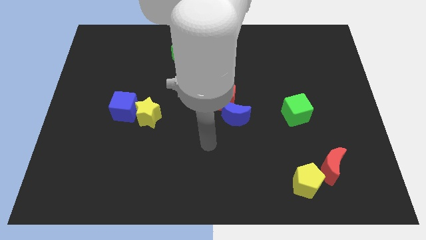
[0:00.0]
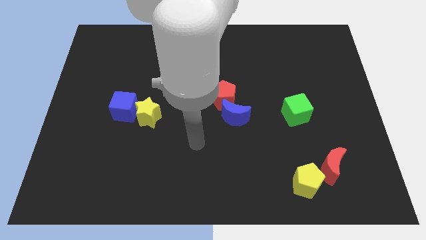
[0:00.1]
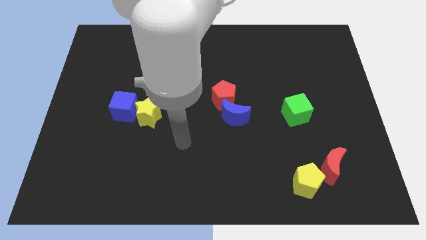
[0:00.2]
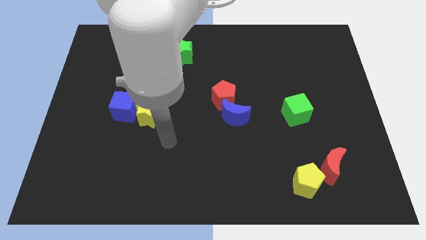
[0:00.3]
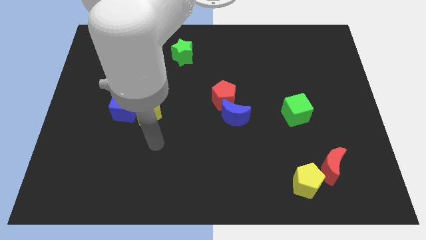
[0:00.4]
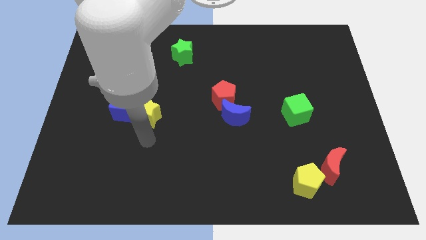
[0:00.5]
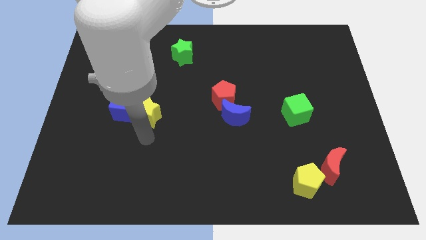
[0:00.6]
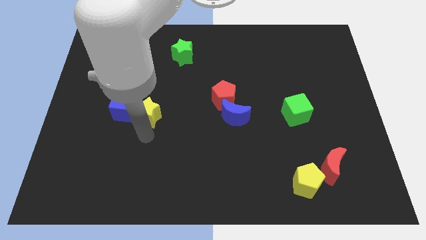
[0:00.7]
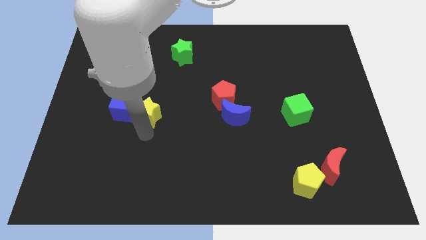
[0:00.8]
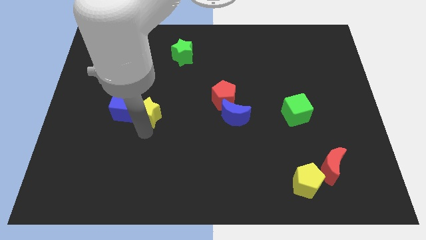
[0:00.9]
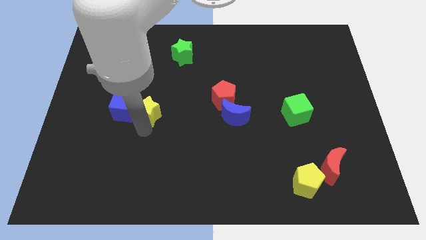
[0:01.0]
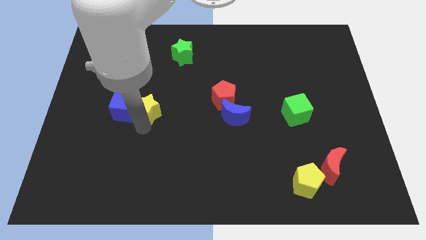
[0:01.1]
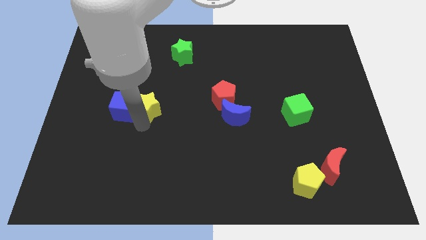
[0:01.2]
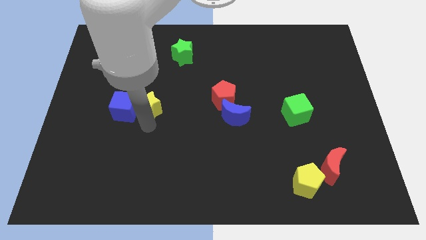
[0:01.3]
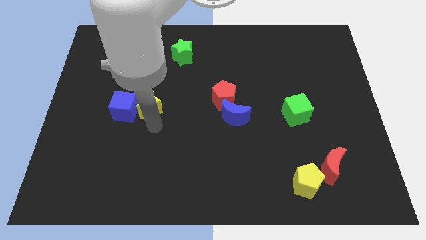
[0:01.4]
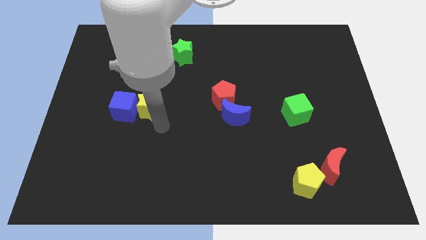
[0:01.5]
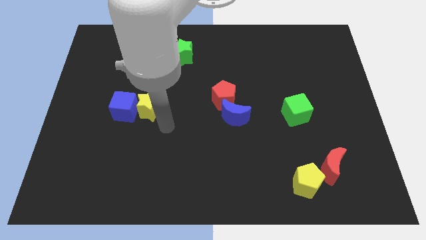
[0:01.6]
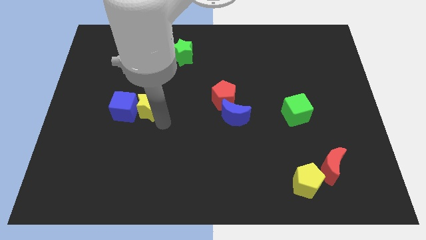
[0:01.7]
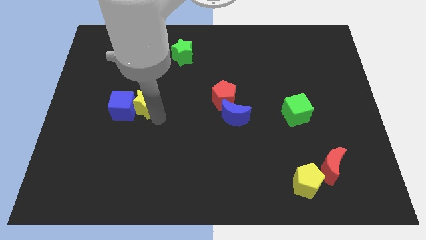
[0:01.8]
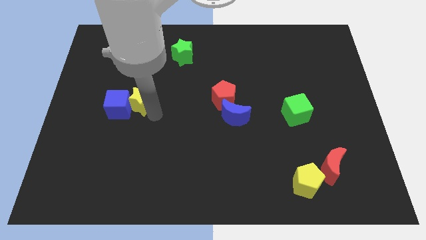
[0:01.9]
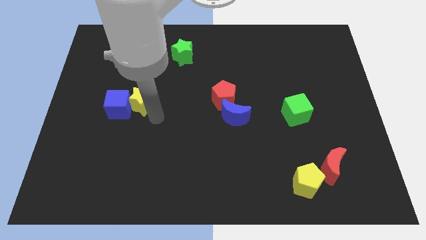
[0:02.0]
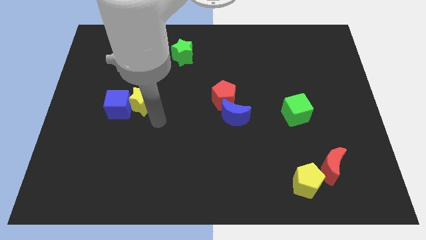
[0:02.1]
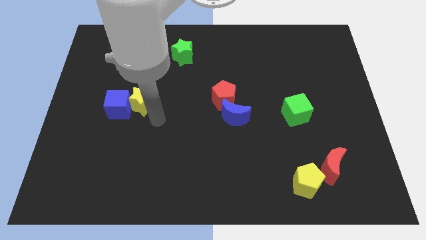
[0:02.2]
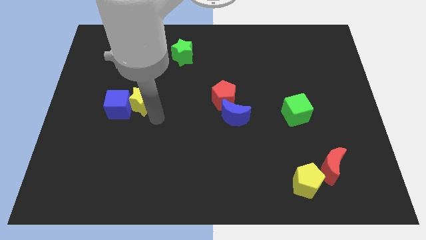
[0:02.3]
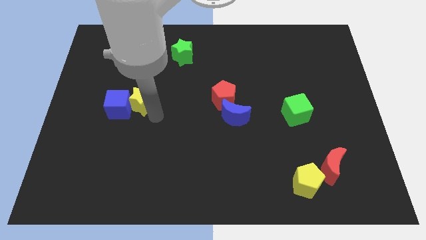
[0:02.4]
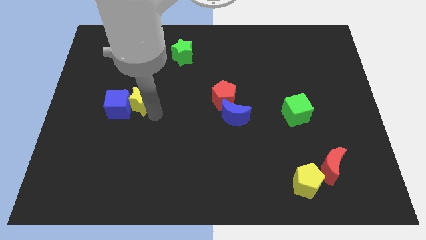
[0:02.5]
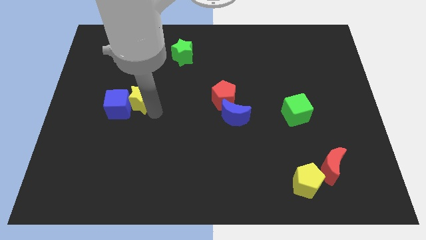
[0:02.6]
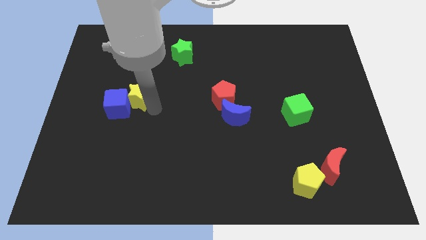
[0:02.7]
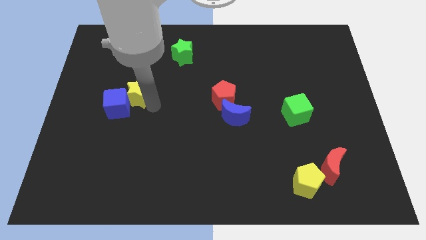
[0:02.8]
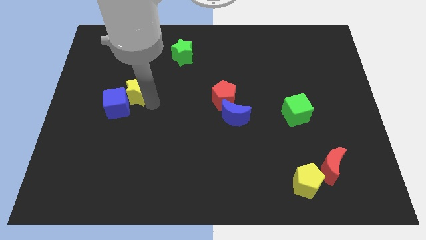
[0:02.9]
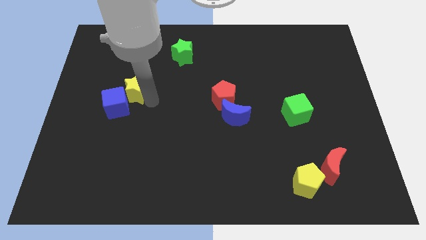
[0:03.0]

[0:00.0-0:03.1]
slightly slide the yellow star upwards and to the left

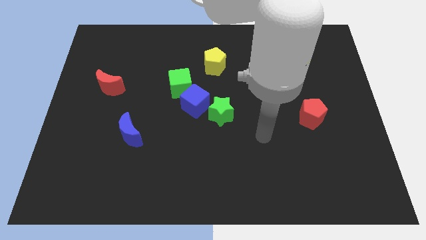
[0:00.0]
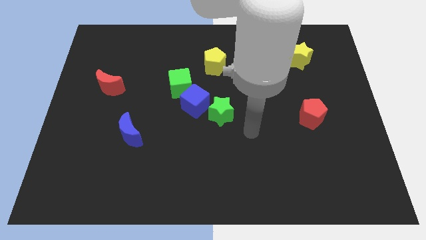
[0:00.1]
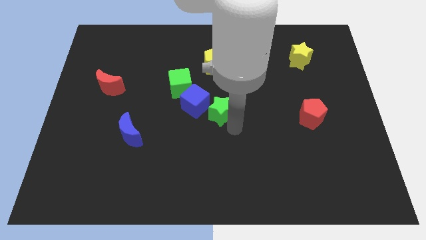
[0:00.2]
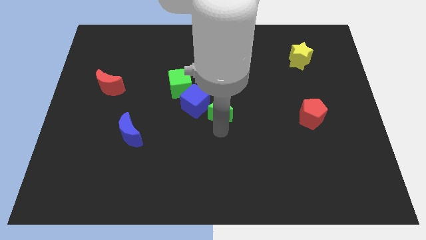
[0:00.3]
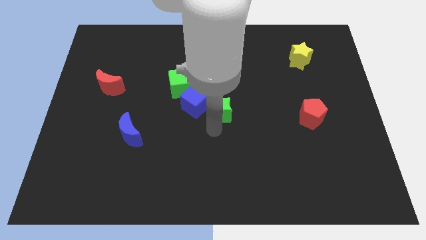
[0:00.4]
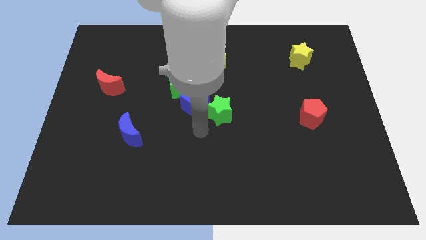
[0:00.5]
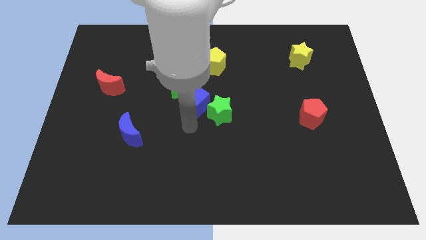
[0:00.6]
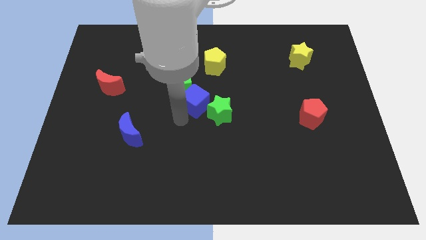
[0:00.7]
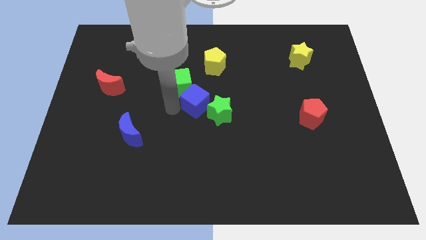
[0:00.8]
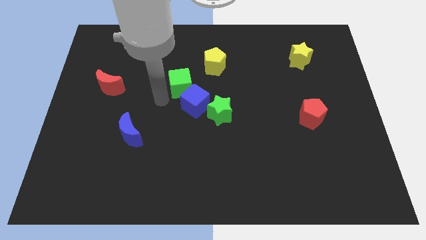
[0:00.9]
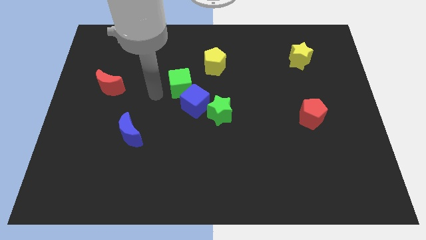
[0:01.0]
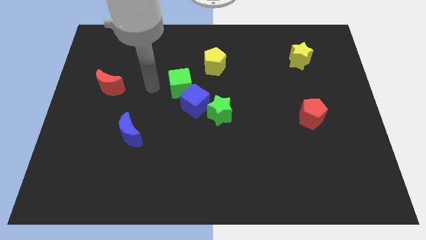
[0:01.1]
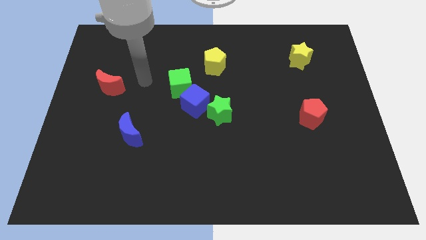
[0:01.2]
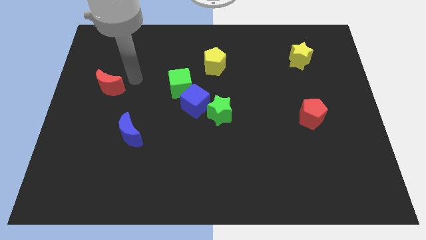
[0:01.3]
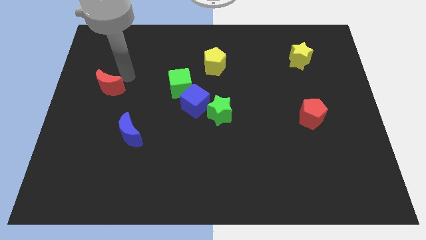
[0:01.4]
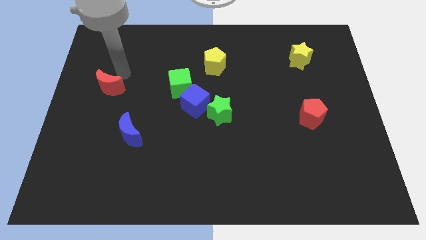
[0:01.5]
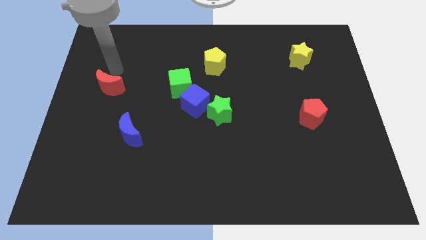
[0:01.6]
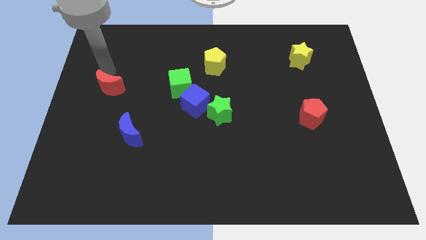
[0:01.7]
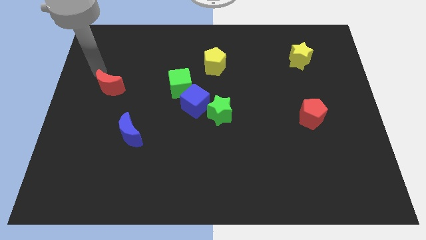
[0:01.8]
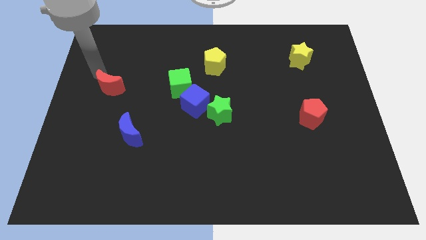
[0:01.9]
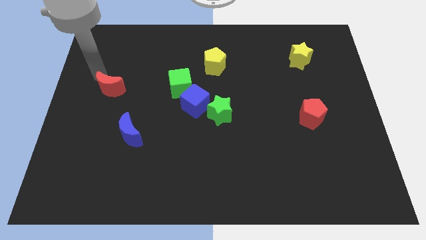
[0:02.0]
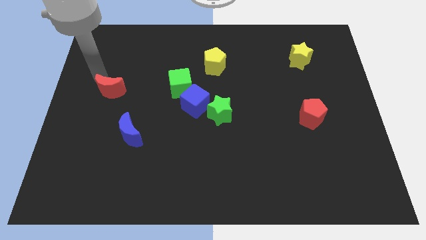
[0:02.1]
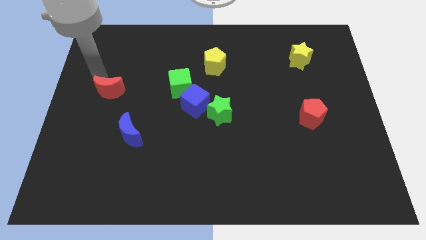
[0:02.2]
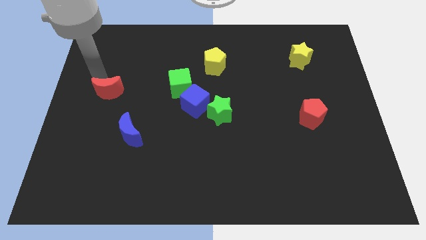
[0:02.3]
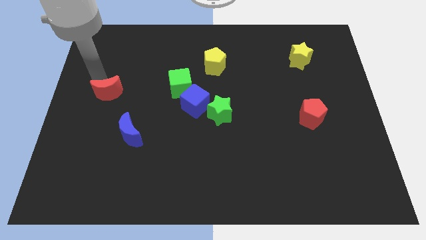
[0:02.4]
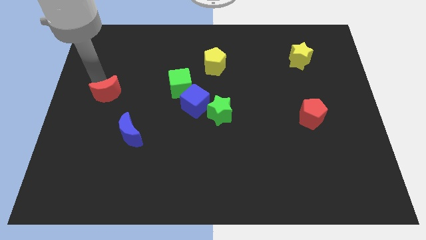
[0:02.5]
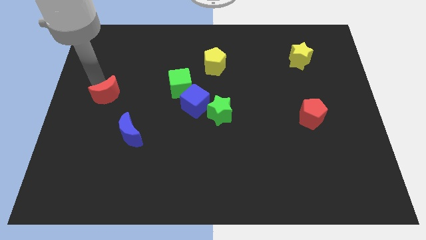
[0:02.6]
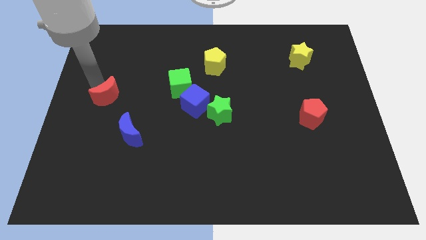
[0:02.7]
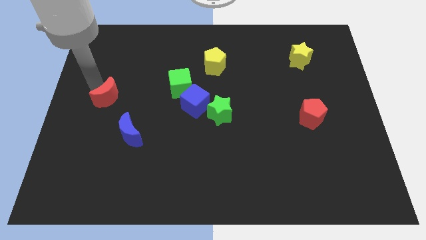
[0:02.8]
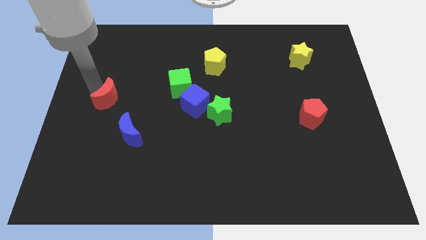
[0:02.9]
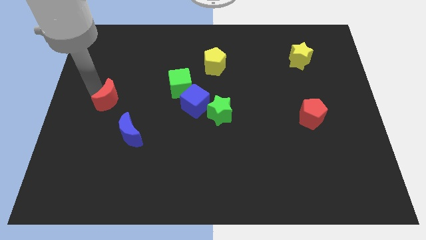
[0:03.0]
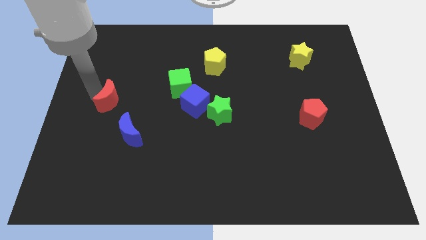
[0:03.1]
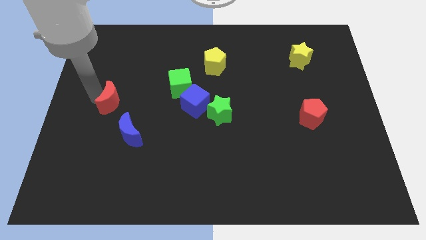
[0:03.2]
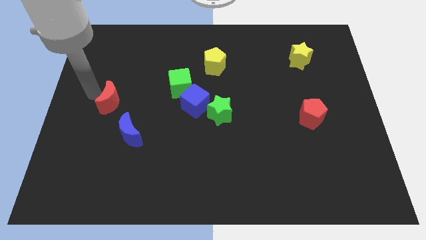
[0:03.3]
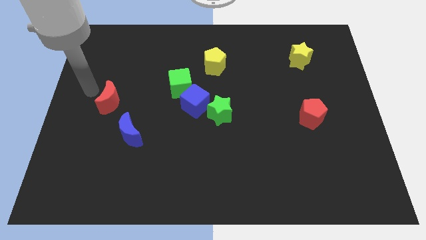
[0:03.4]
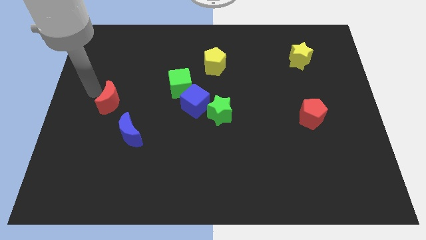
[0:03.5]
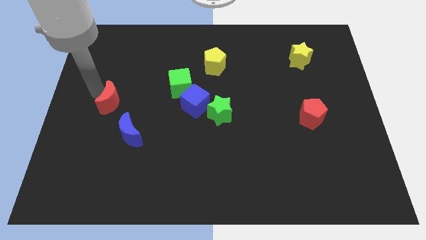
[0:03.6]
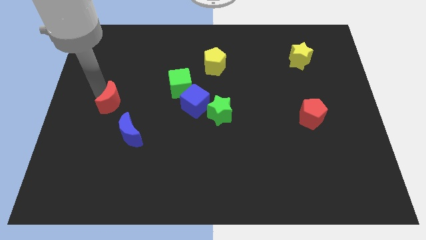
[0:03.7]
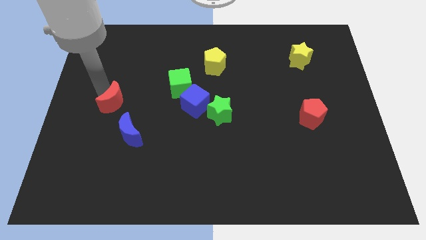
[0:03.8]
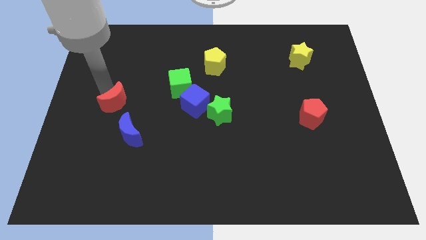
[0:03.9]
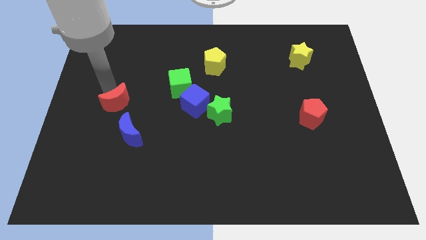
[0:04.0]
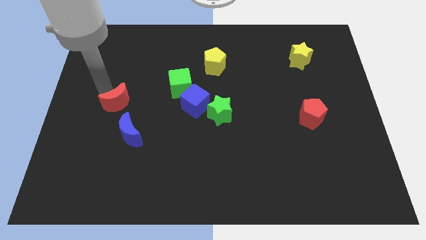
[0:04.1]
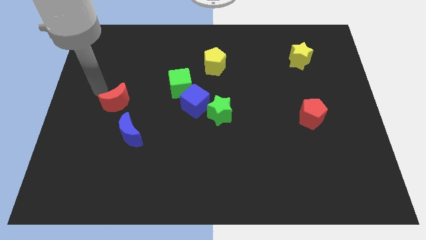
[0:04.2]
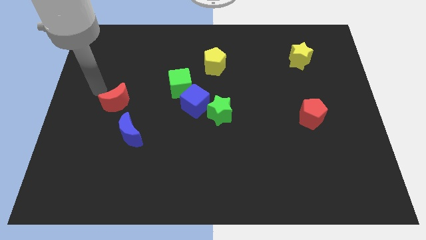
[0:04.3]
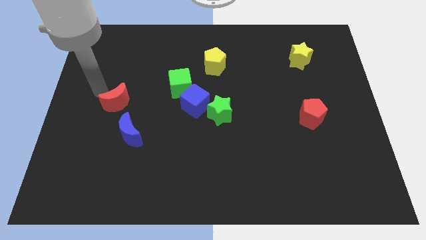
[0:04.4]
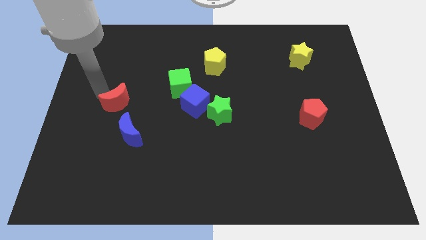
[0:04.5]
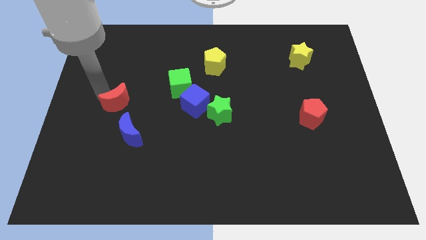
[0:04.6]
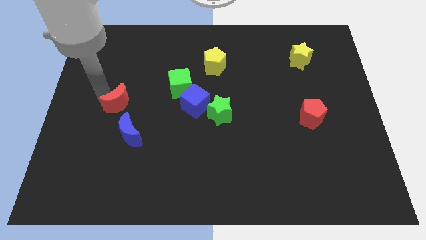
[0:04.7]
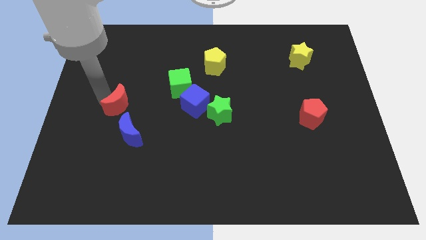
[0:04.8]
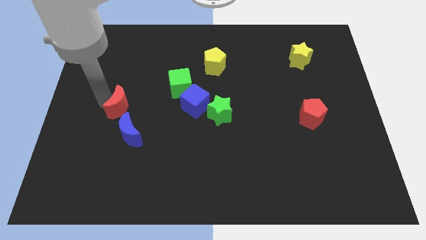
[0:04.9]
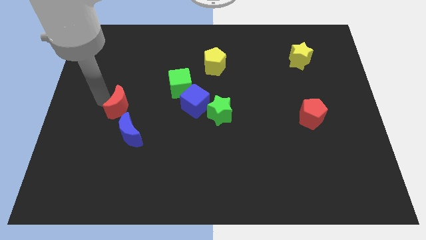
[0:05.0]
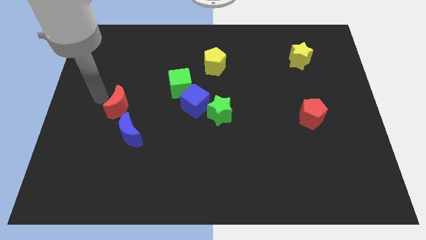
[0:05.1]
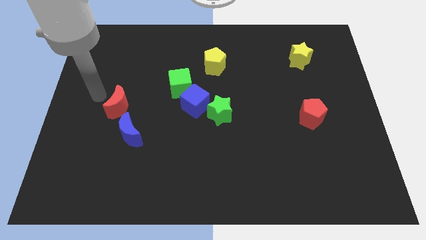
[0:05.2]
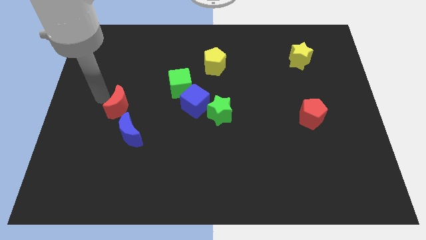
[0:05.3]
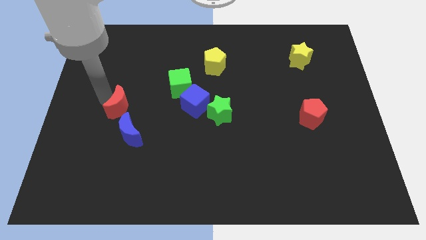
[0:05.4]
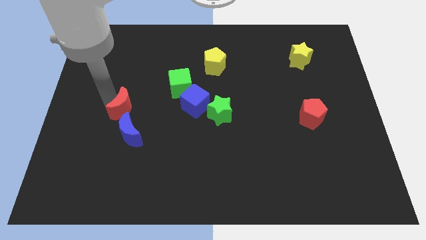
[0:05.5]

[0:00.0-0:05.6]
slide the red moon somewhat diagonally downwards and right
